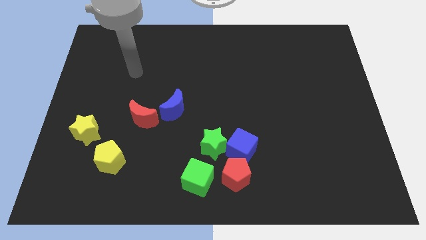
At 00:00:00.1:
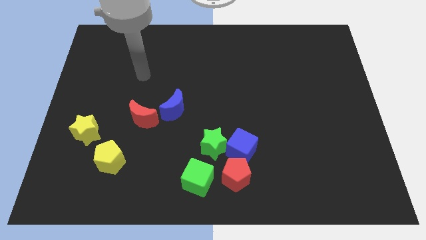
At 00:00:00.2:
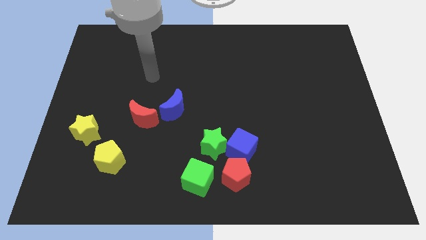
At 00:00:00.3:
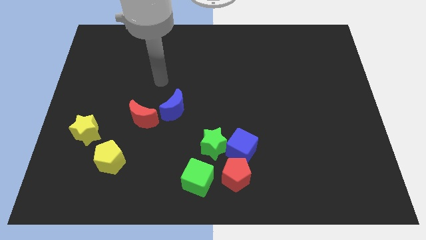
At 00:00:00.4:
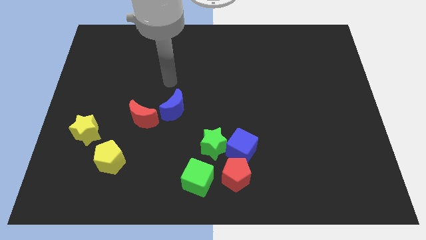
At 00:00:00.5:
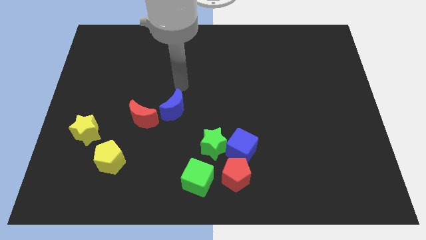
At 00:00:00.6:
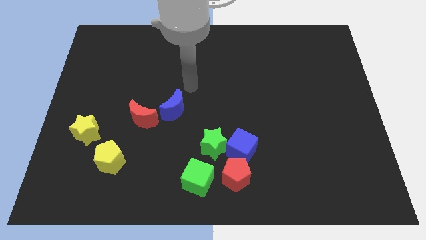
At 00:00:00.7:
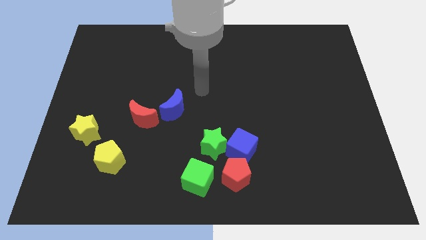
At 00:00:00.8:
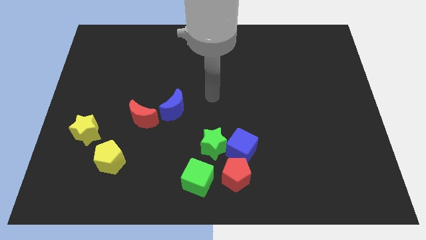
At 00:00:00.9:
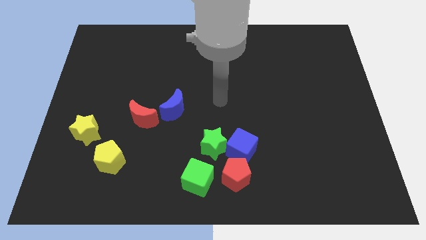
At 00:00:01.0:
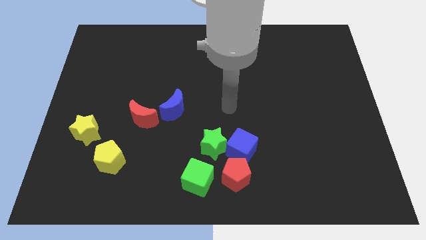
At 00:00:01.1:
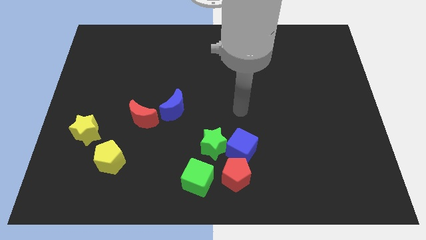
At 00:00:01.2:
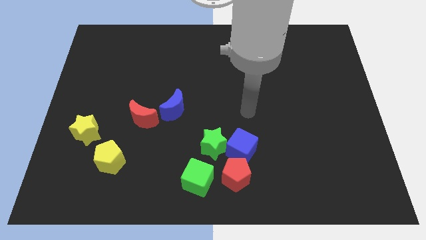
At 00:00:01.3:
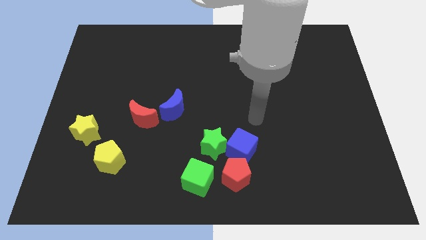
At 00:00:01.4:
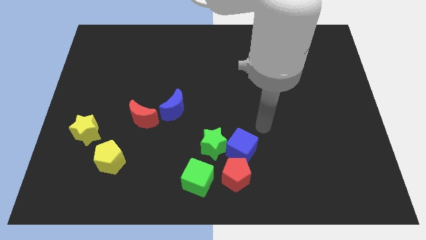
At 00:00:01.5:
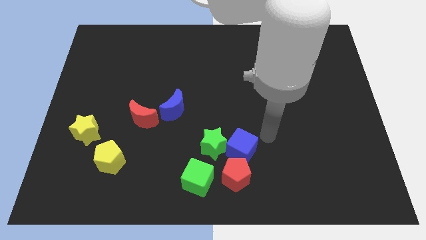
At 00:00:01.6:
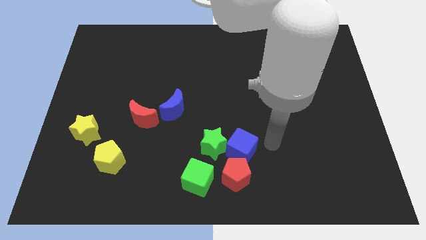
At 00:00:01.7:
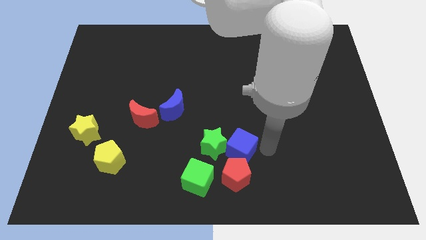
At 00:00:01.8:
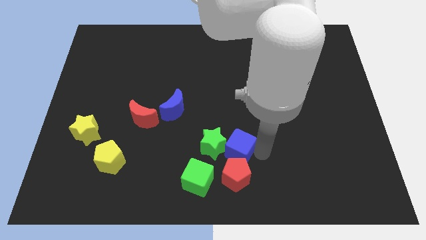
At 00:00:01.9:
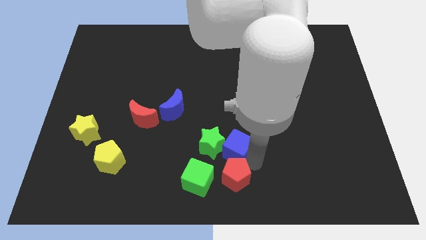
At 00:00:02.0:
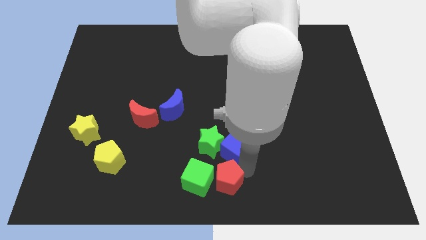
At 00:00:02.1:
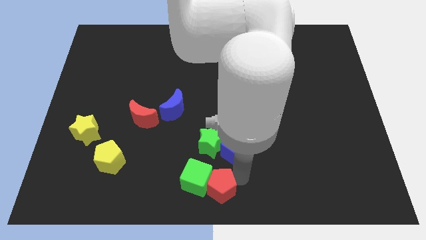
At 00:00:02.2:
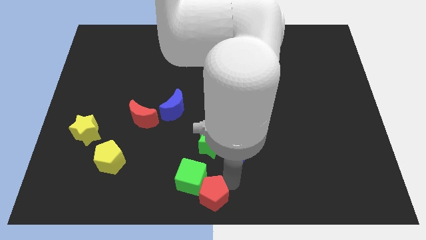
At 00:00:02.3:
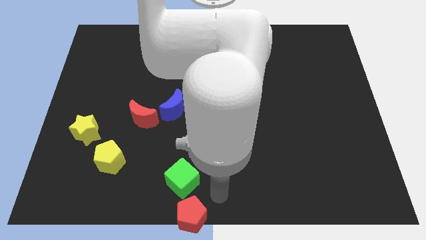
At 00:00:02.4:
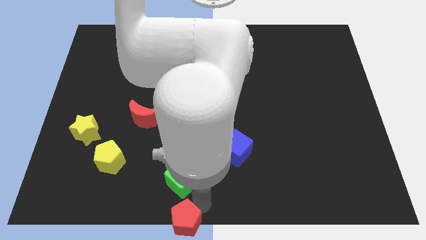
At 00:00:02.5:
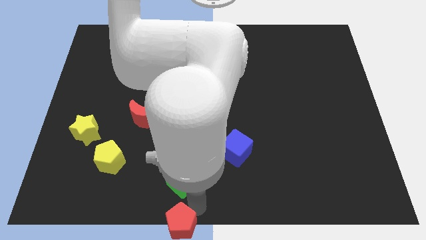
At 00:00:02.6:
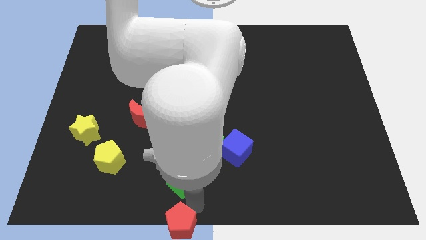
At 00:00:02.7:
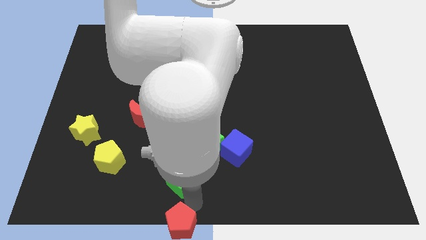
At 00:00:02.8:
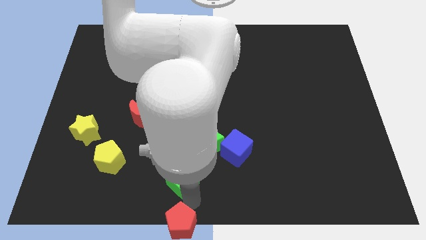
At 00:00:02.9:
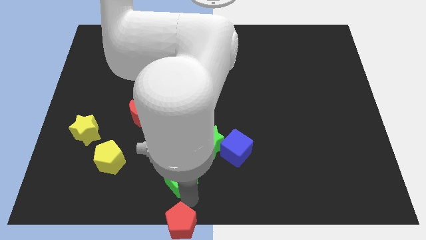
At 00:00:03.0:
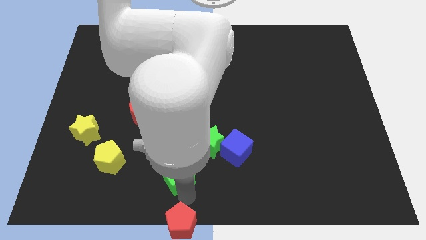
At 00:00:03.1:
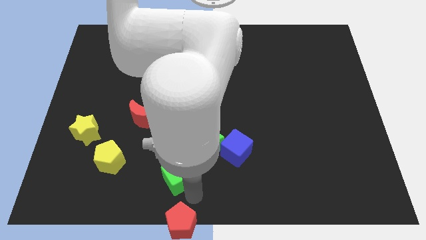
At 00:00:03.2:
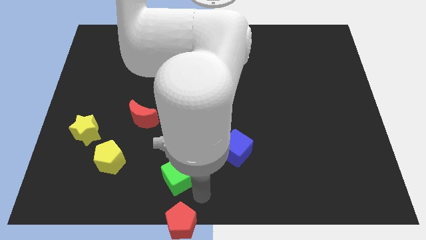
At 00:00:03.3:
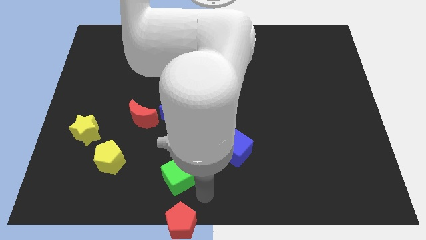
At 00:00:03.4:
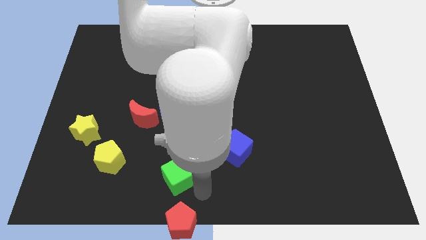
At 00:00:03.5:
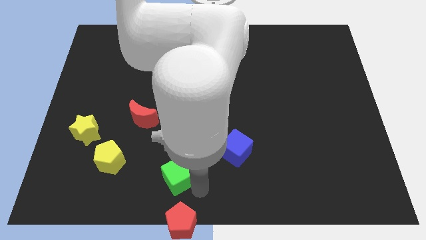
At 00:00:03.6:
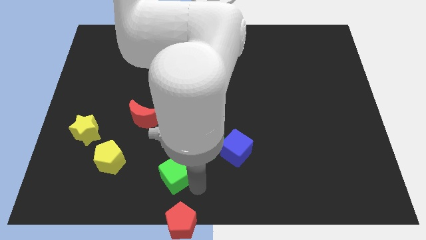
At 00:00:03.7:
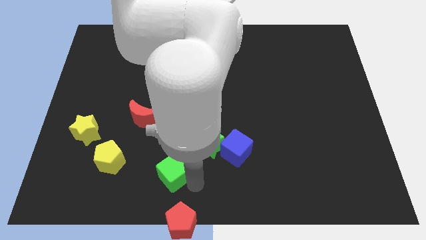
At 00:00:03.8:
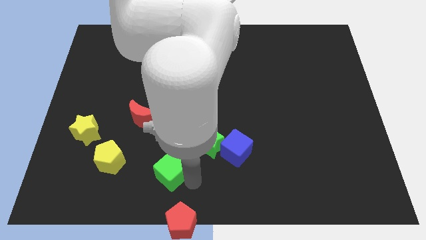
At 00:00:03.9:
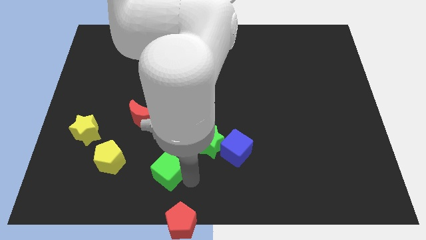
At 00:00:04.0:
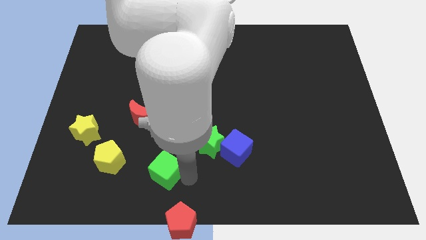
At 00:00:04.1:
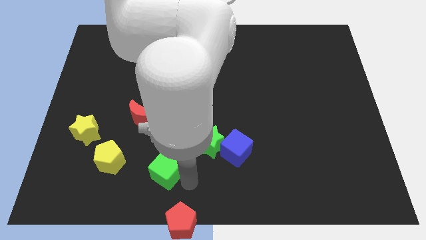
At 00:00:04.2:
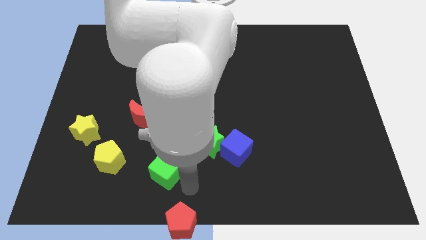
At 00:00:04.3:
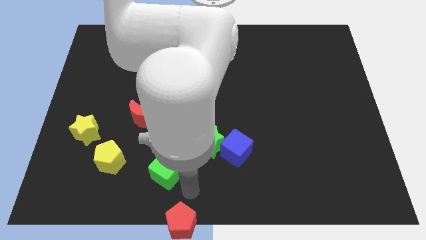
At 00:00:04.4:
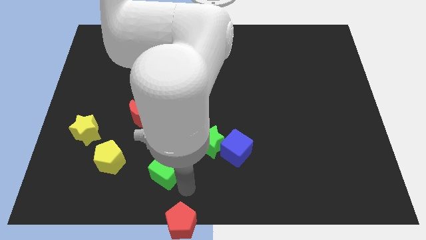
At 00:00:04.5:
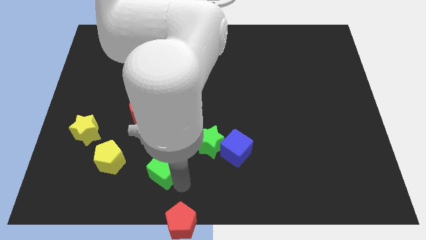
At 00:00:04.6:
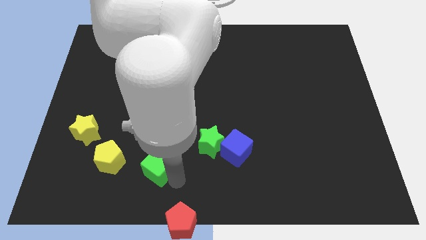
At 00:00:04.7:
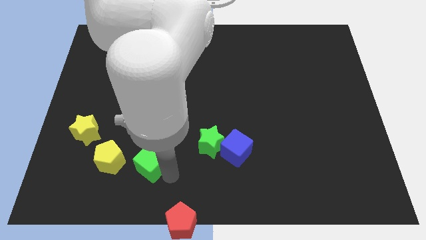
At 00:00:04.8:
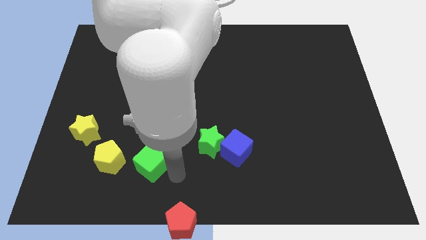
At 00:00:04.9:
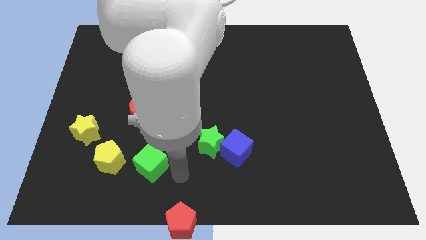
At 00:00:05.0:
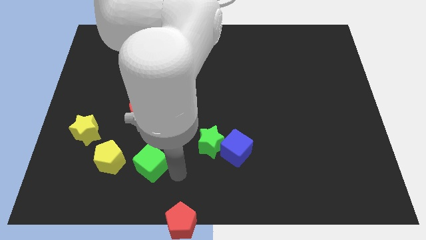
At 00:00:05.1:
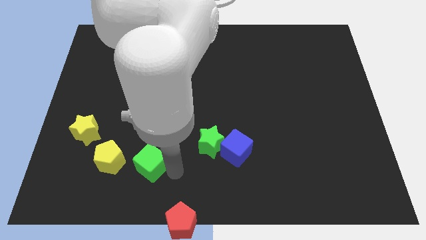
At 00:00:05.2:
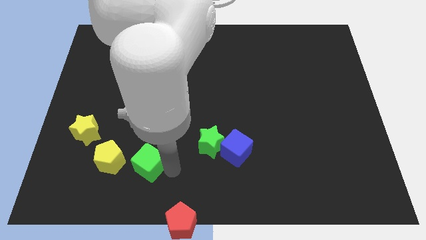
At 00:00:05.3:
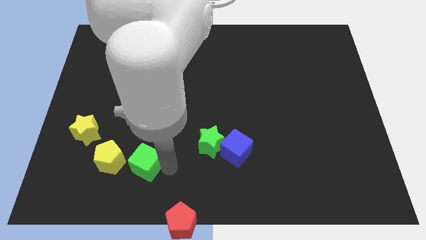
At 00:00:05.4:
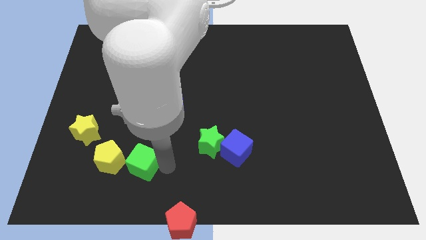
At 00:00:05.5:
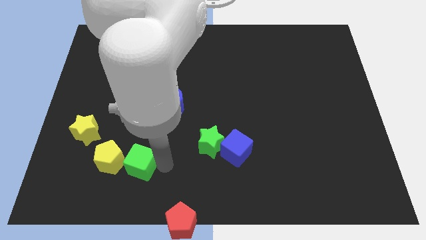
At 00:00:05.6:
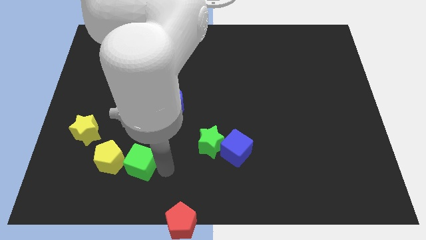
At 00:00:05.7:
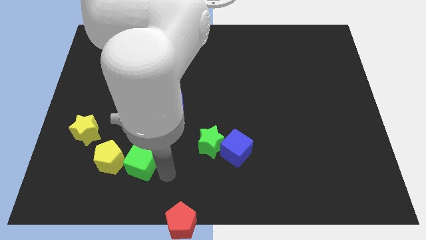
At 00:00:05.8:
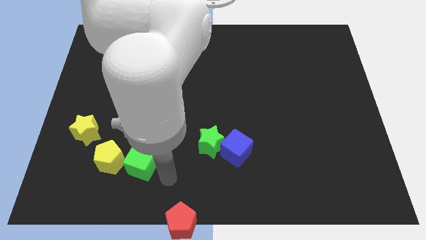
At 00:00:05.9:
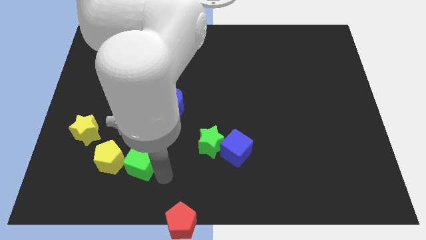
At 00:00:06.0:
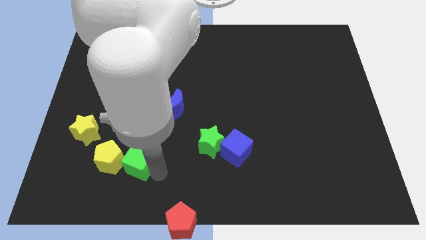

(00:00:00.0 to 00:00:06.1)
slide the green cube close to the yellow pentagon

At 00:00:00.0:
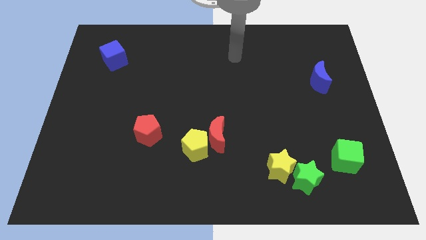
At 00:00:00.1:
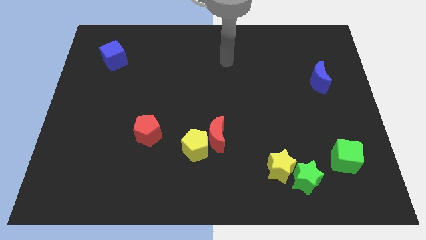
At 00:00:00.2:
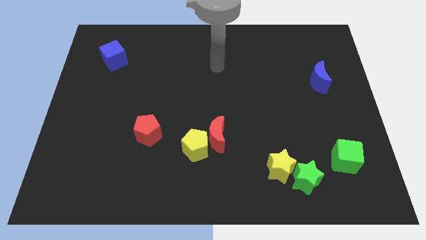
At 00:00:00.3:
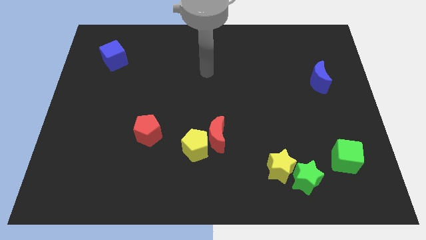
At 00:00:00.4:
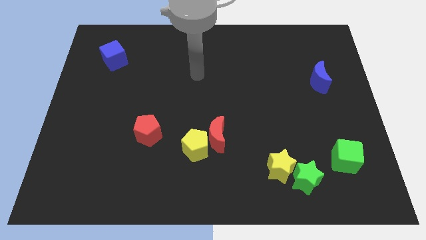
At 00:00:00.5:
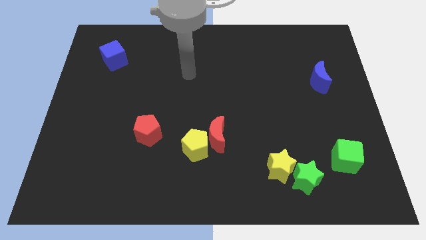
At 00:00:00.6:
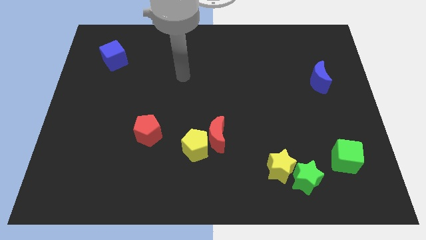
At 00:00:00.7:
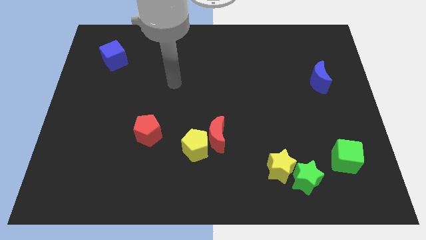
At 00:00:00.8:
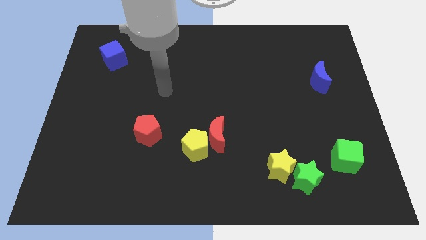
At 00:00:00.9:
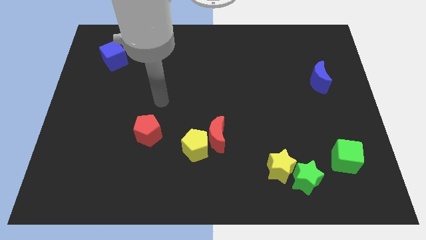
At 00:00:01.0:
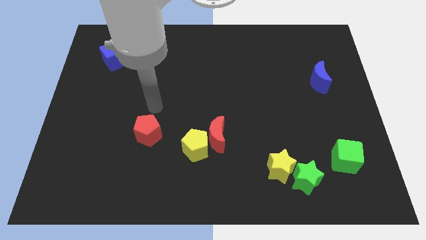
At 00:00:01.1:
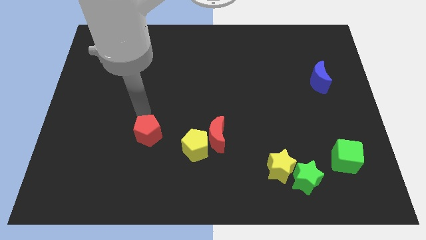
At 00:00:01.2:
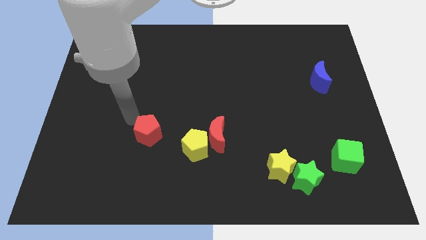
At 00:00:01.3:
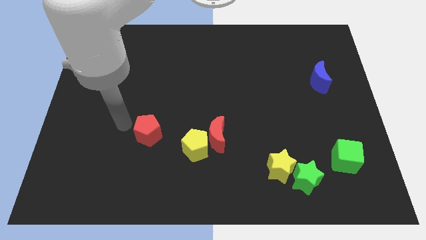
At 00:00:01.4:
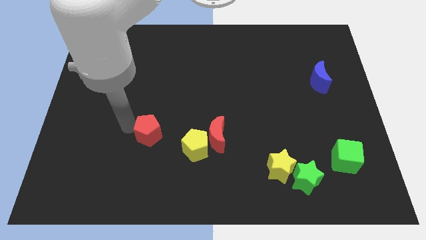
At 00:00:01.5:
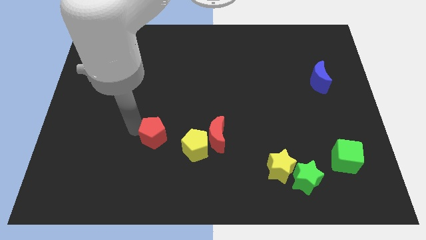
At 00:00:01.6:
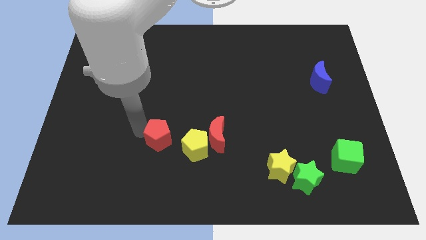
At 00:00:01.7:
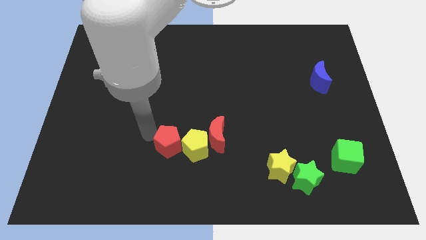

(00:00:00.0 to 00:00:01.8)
move the red pentagon to the yellow pentagon
